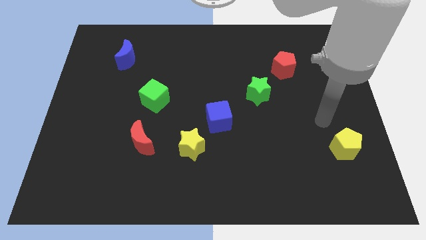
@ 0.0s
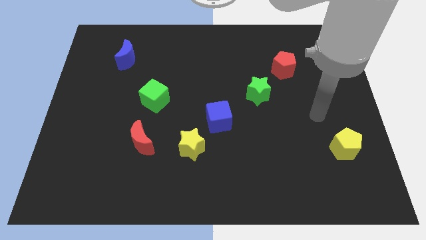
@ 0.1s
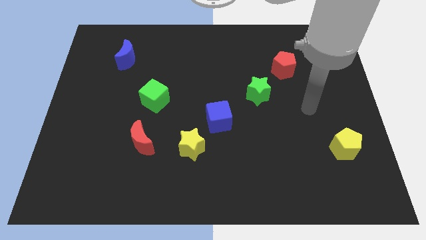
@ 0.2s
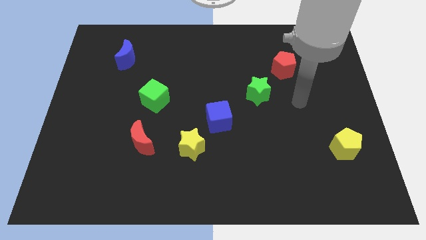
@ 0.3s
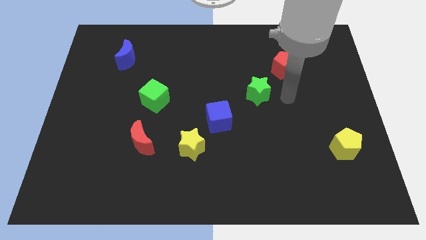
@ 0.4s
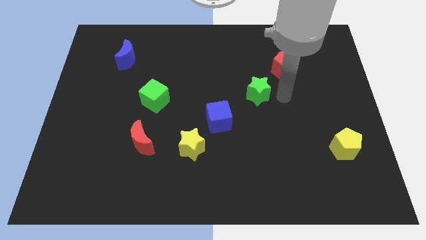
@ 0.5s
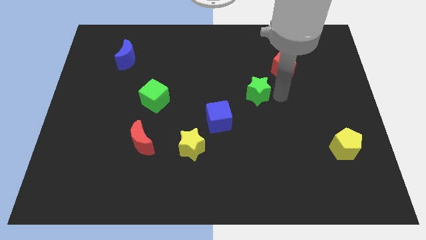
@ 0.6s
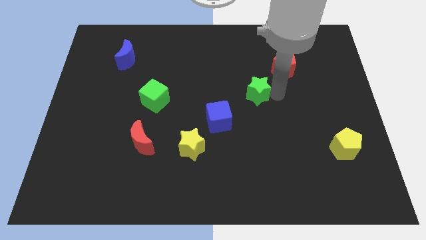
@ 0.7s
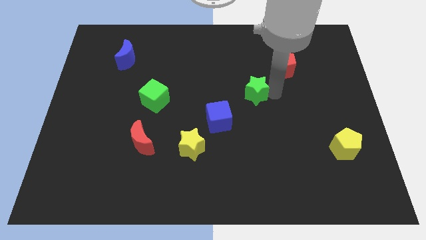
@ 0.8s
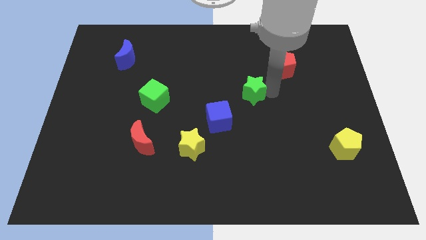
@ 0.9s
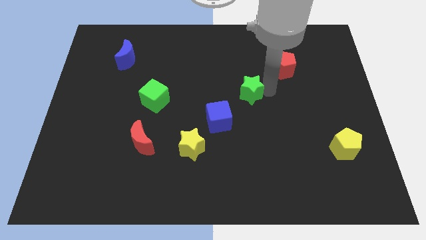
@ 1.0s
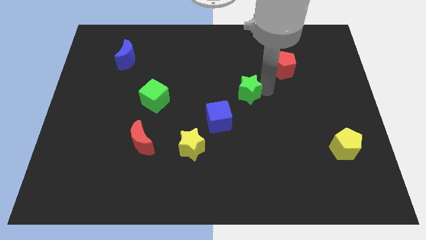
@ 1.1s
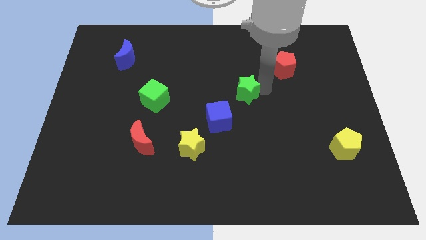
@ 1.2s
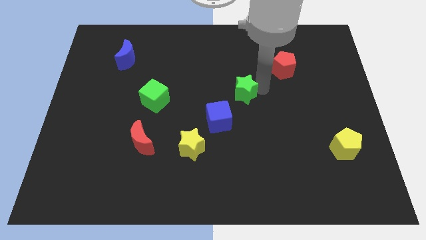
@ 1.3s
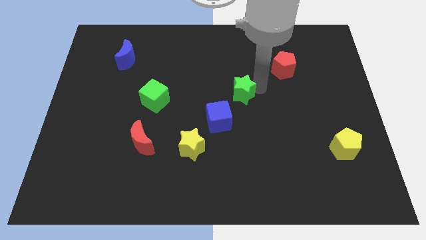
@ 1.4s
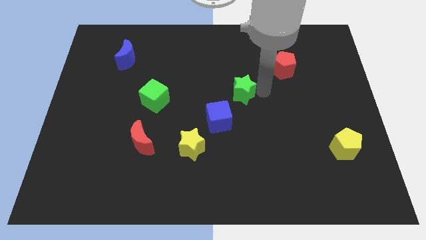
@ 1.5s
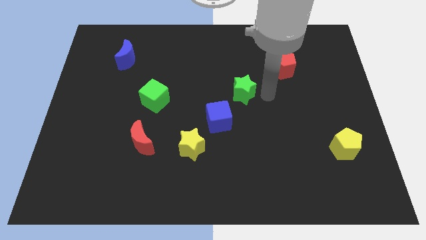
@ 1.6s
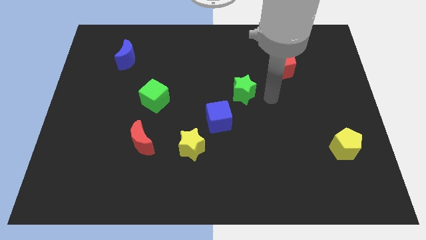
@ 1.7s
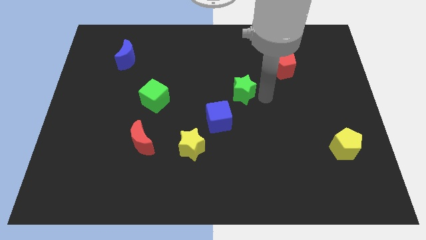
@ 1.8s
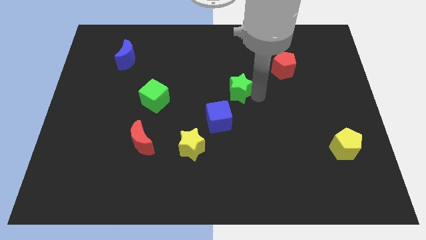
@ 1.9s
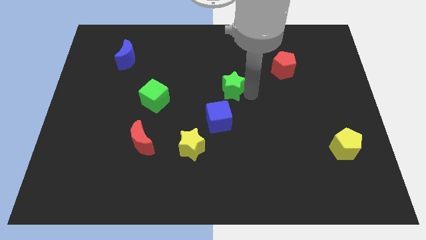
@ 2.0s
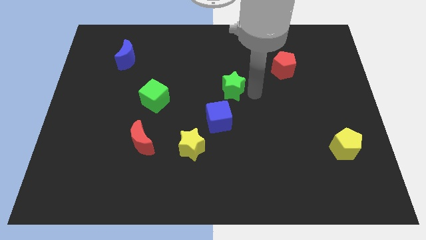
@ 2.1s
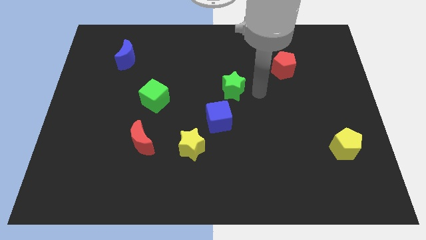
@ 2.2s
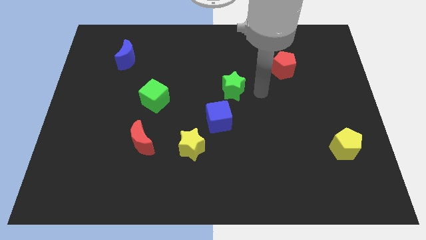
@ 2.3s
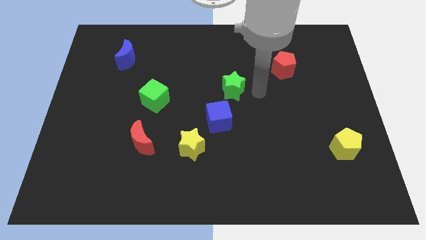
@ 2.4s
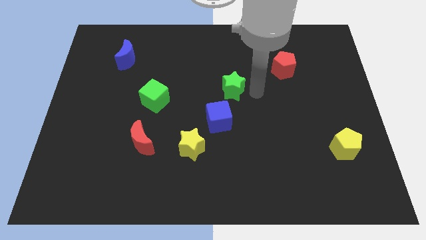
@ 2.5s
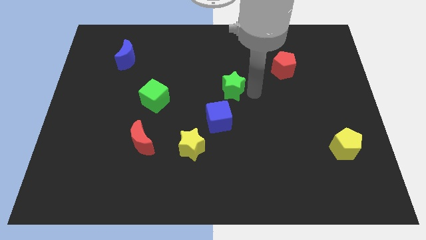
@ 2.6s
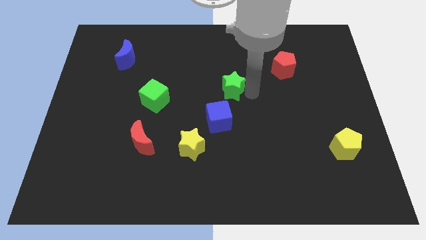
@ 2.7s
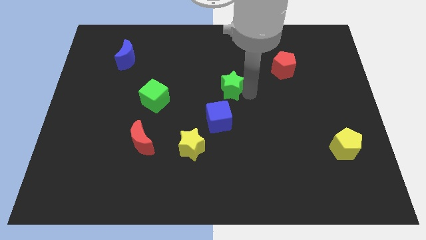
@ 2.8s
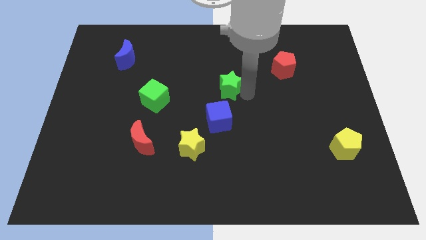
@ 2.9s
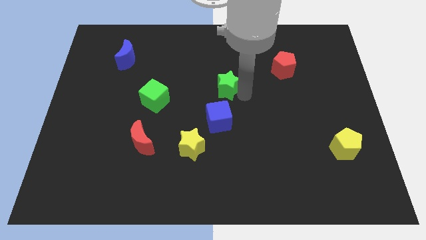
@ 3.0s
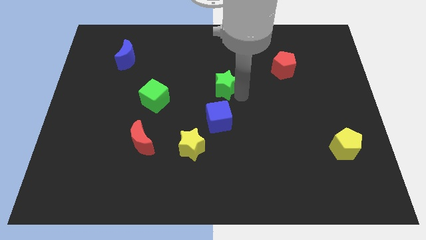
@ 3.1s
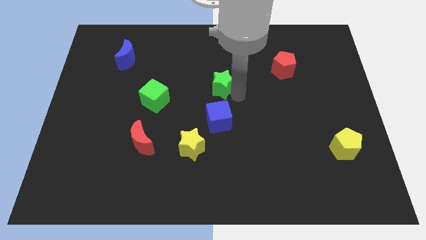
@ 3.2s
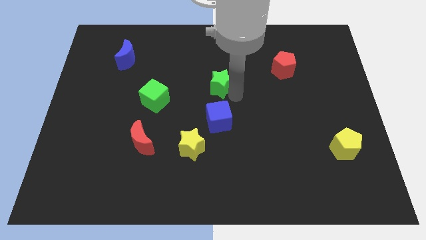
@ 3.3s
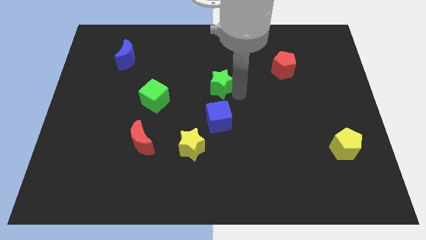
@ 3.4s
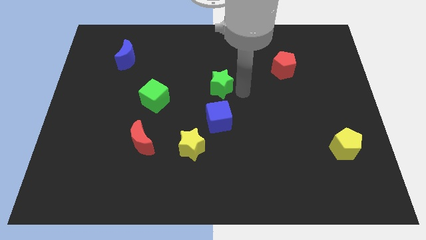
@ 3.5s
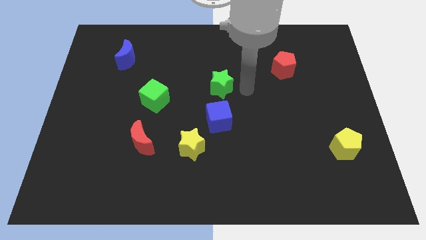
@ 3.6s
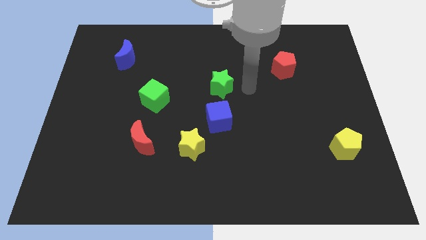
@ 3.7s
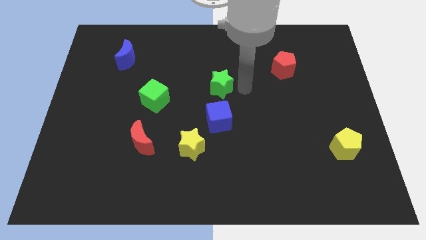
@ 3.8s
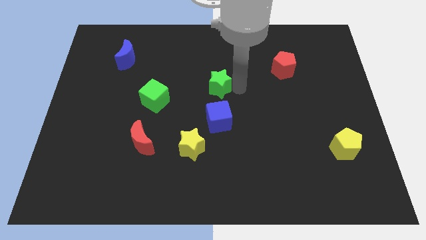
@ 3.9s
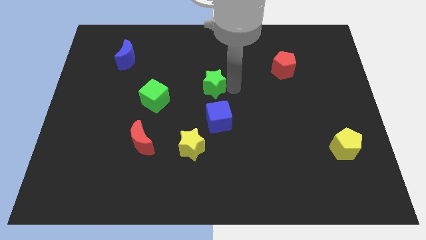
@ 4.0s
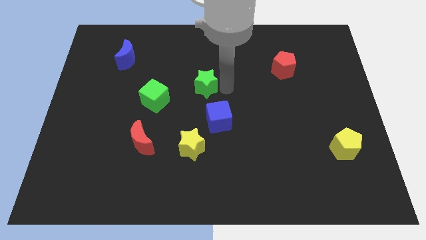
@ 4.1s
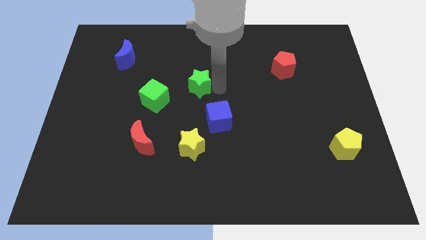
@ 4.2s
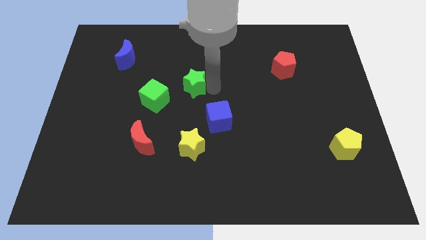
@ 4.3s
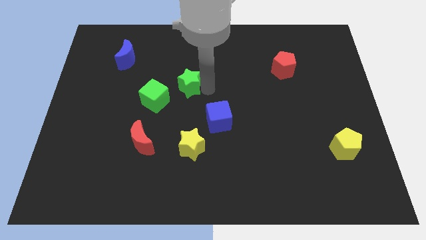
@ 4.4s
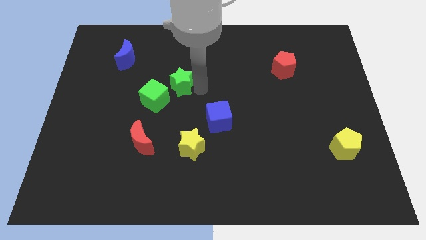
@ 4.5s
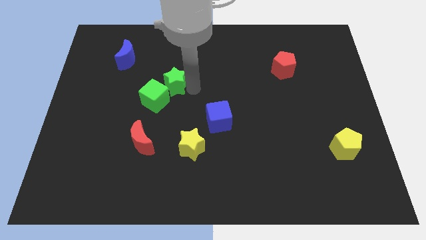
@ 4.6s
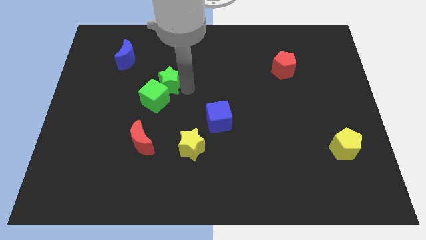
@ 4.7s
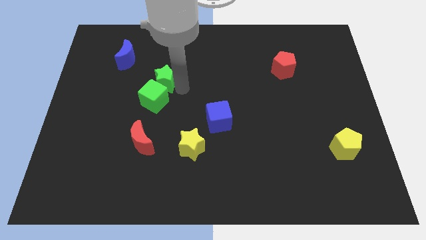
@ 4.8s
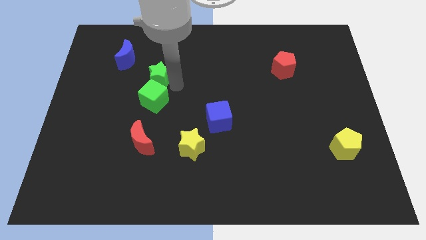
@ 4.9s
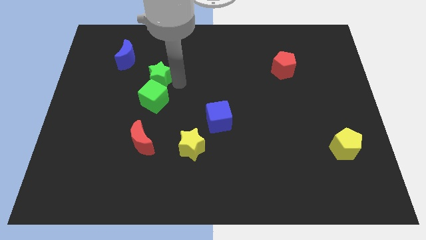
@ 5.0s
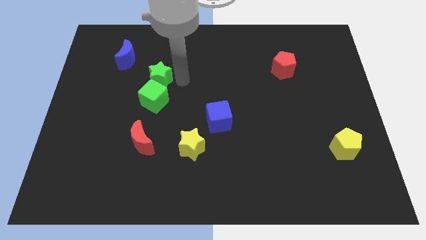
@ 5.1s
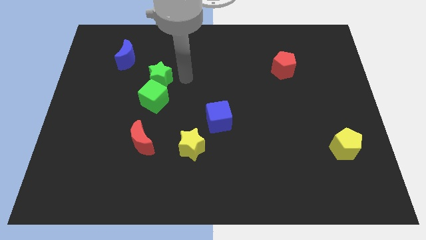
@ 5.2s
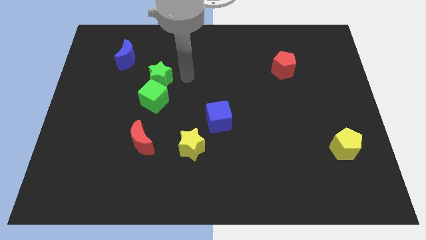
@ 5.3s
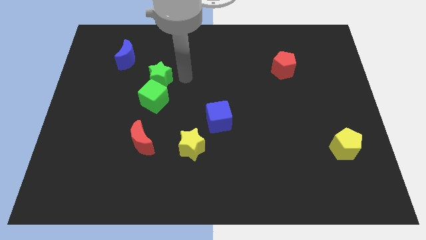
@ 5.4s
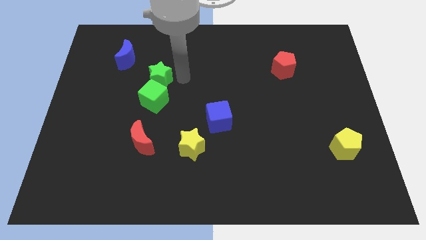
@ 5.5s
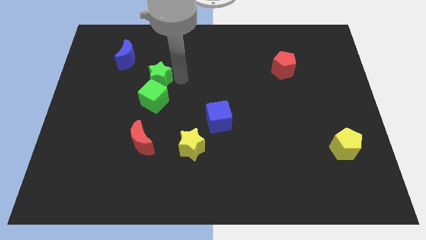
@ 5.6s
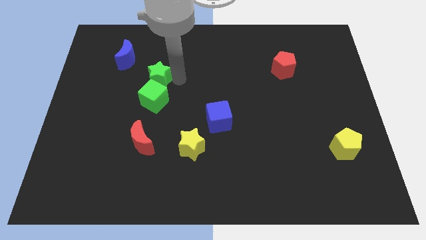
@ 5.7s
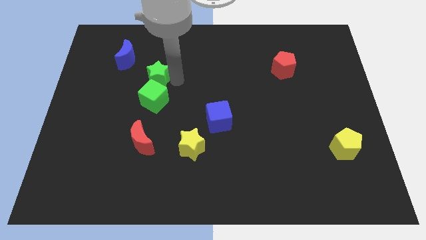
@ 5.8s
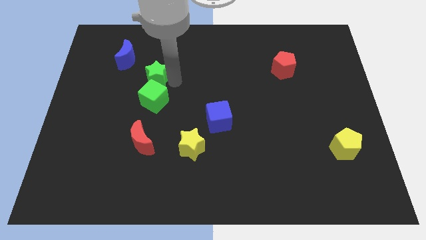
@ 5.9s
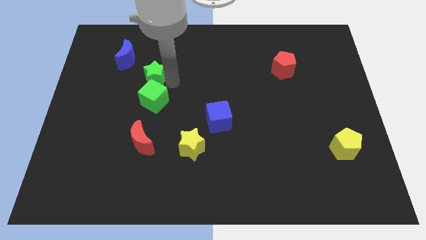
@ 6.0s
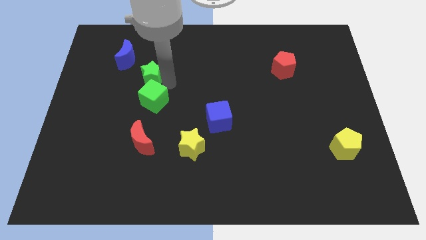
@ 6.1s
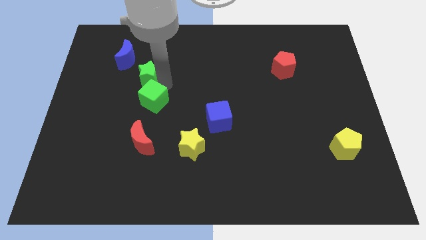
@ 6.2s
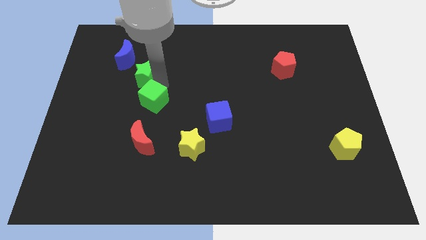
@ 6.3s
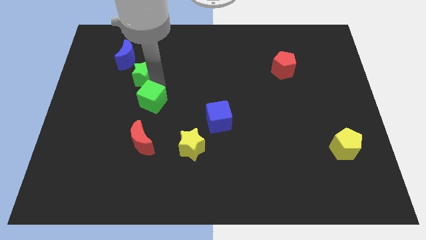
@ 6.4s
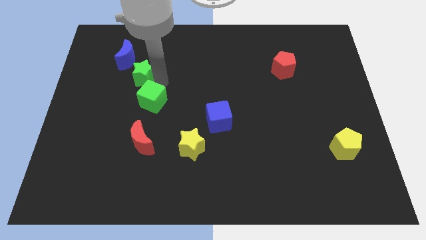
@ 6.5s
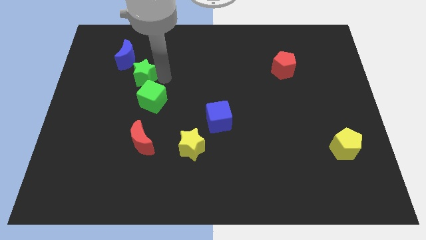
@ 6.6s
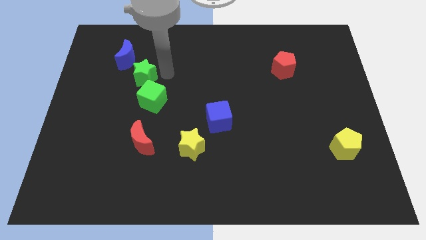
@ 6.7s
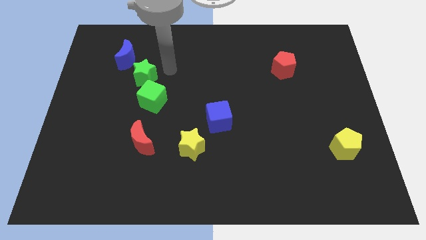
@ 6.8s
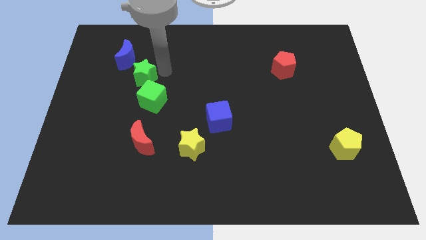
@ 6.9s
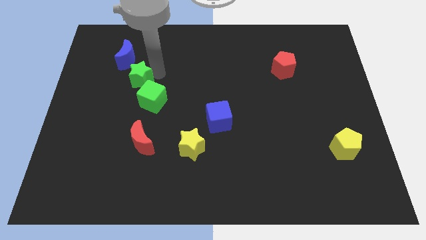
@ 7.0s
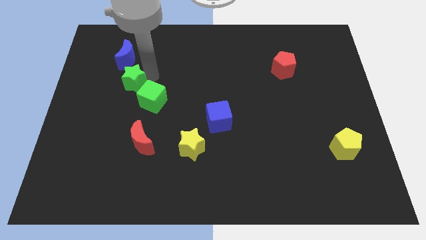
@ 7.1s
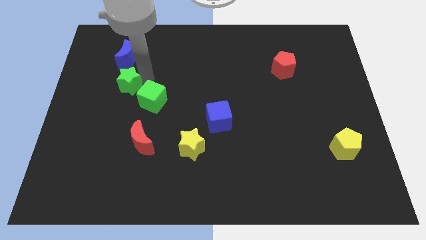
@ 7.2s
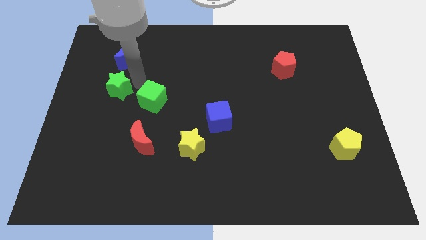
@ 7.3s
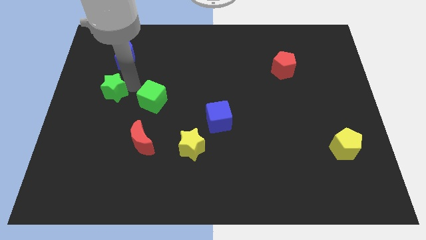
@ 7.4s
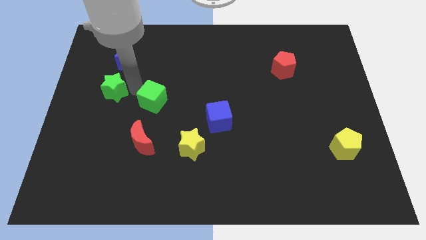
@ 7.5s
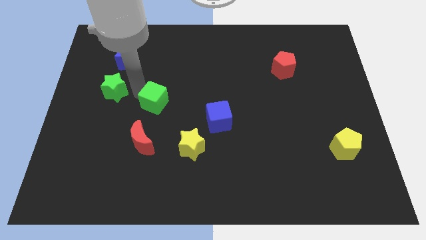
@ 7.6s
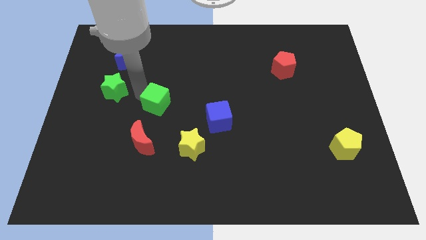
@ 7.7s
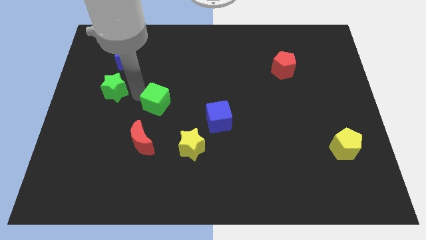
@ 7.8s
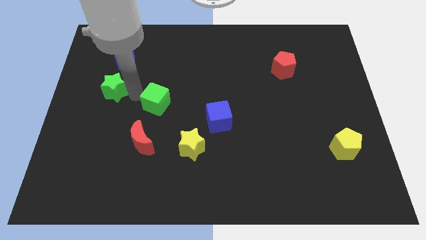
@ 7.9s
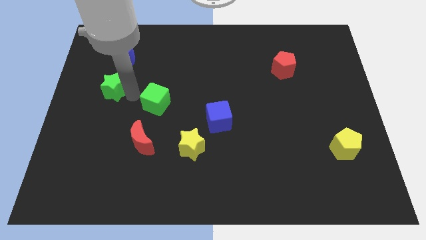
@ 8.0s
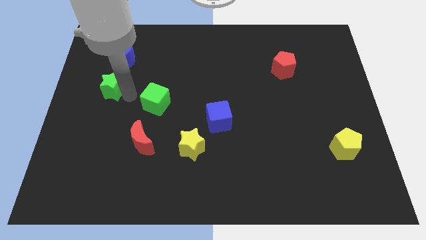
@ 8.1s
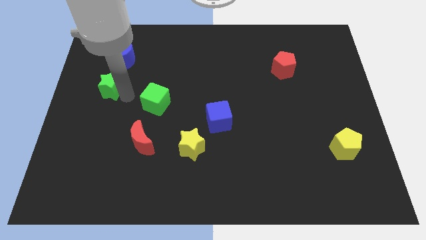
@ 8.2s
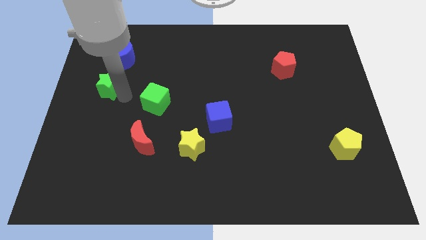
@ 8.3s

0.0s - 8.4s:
push the green star to the center left
